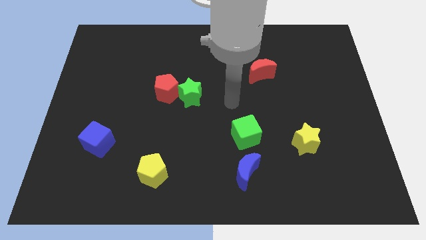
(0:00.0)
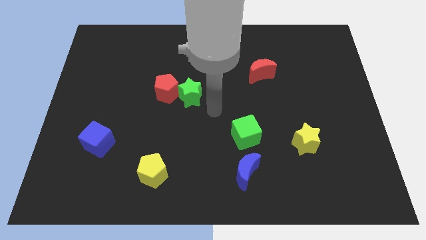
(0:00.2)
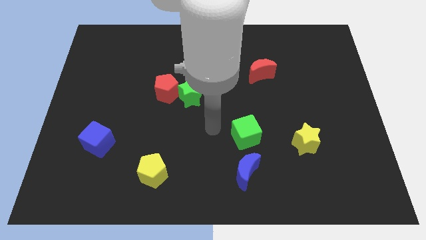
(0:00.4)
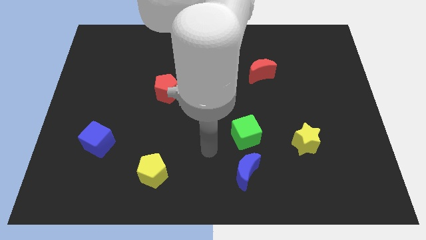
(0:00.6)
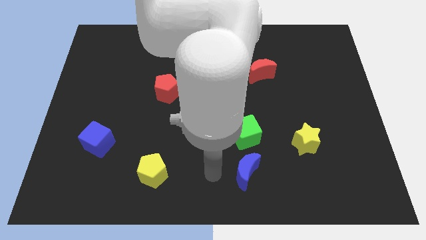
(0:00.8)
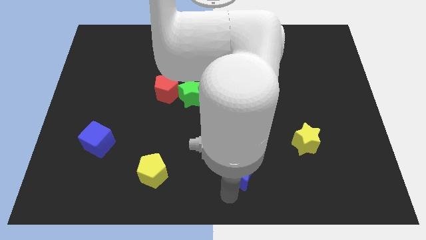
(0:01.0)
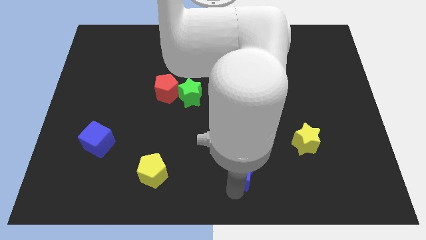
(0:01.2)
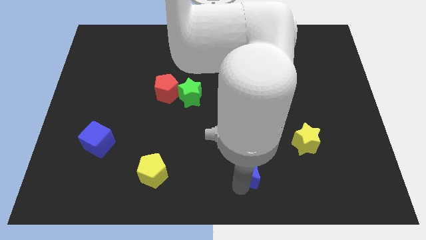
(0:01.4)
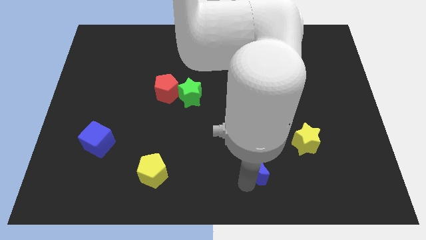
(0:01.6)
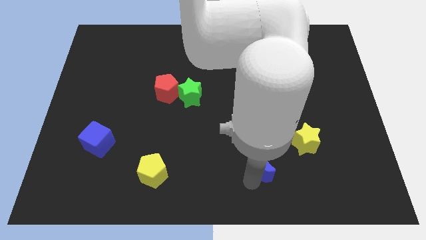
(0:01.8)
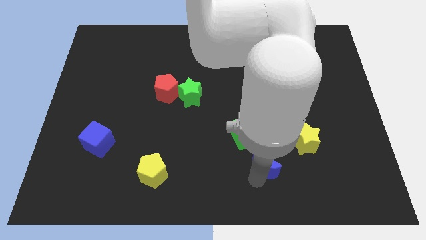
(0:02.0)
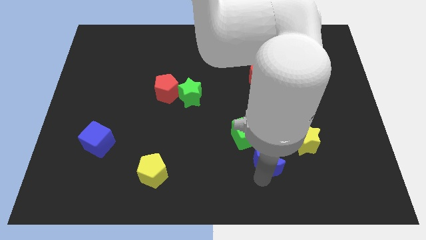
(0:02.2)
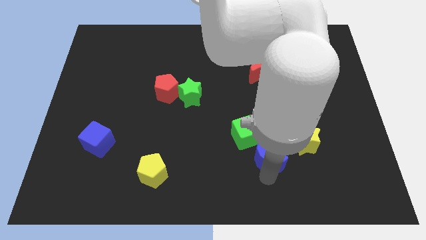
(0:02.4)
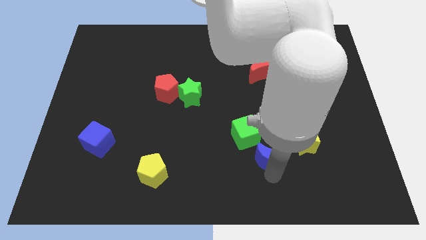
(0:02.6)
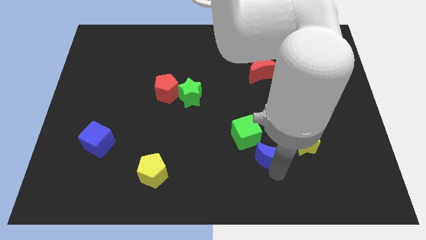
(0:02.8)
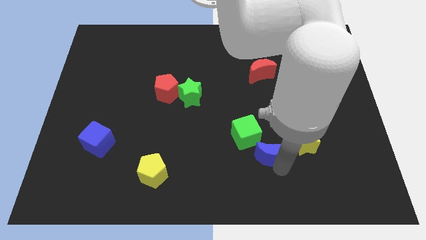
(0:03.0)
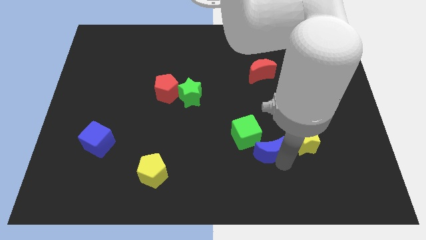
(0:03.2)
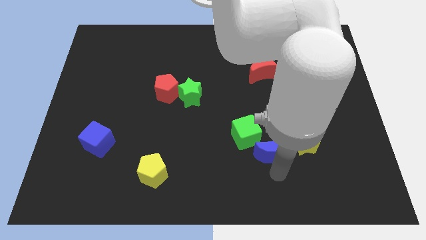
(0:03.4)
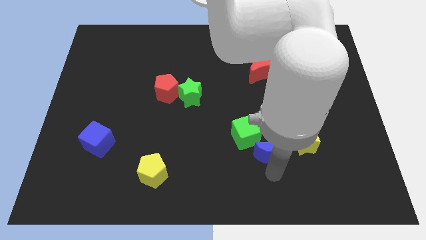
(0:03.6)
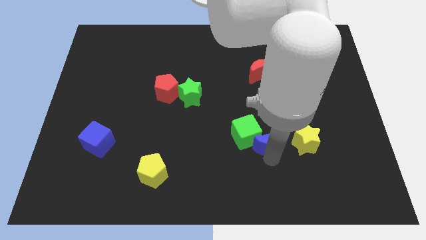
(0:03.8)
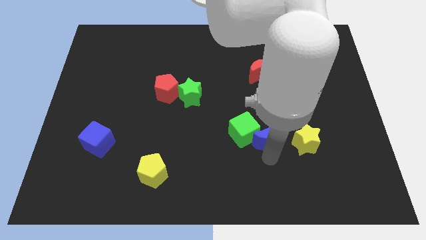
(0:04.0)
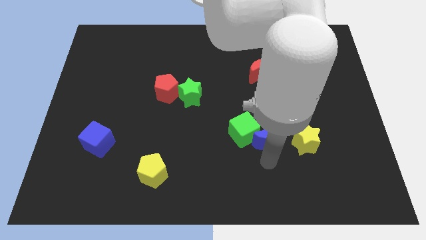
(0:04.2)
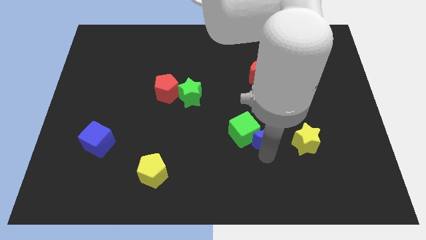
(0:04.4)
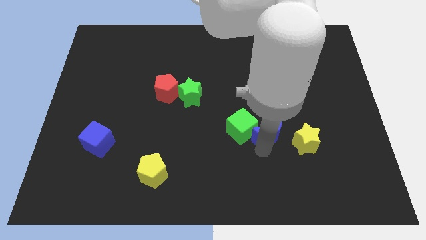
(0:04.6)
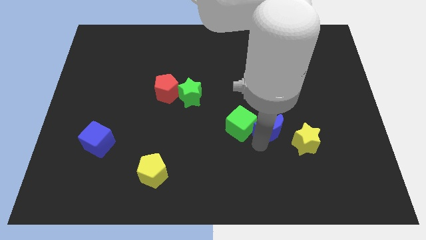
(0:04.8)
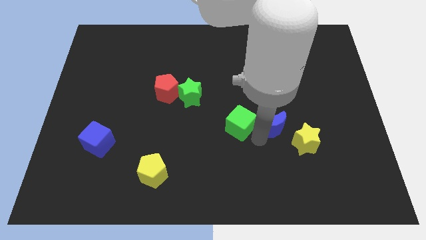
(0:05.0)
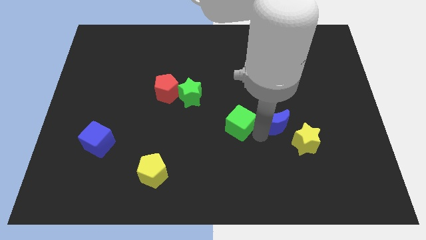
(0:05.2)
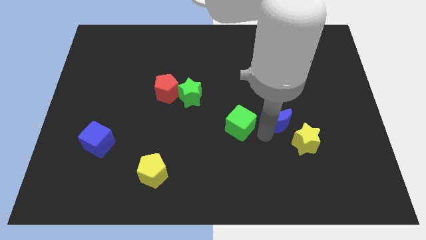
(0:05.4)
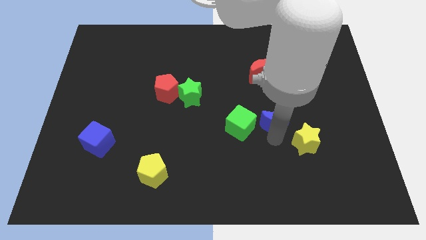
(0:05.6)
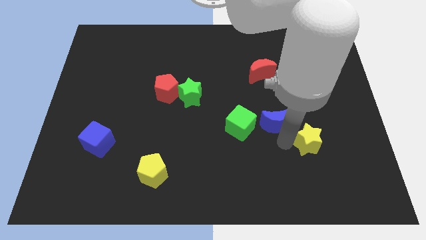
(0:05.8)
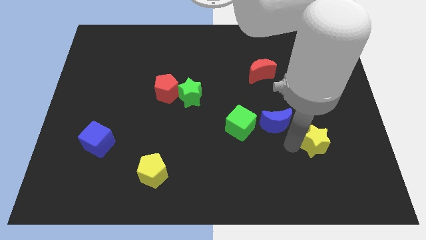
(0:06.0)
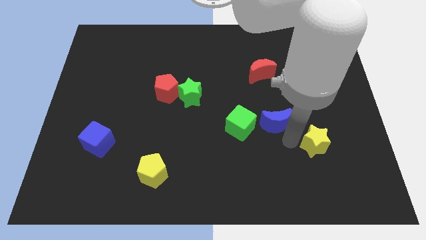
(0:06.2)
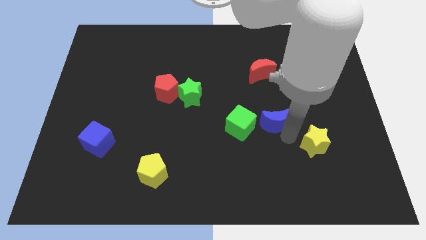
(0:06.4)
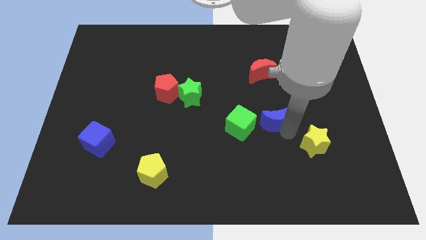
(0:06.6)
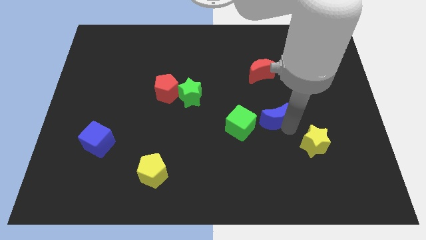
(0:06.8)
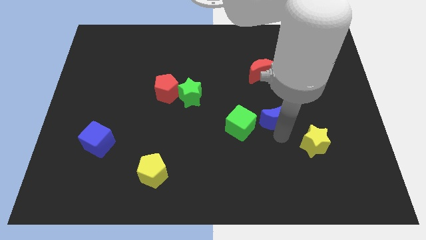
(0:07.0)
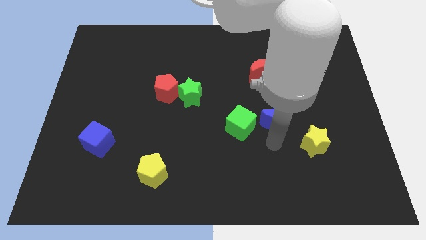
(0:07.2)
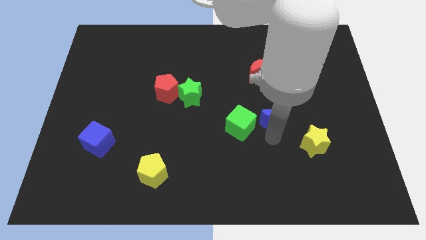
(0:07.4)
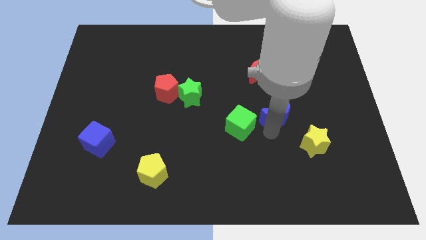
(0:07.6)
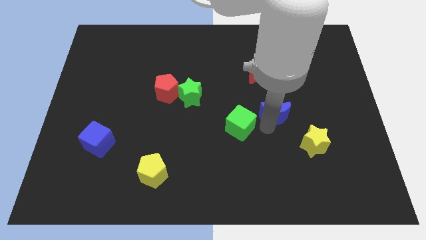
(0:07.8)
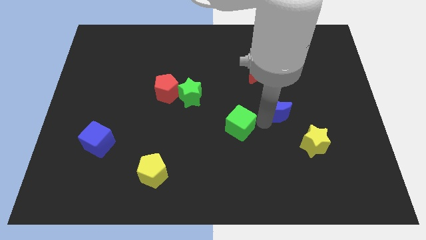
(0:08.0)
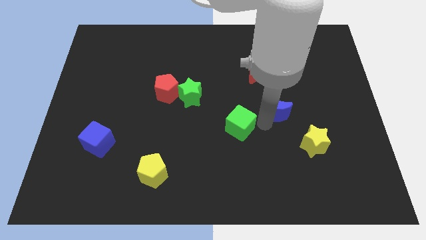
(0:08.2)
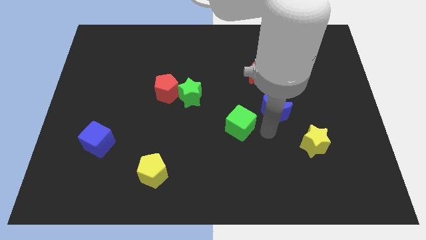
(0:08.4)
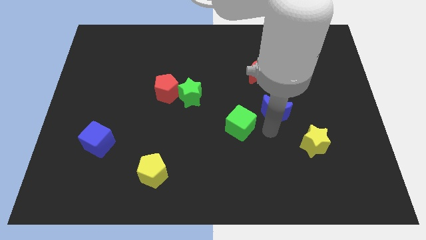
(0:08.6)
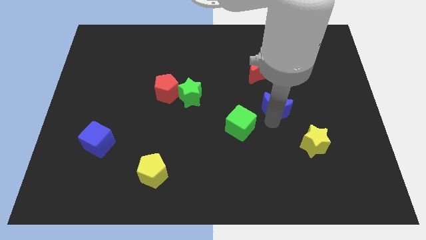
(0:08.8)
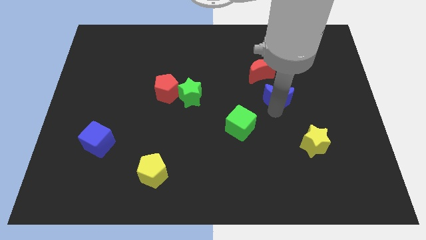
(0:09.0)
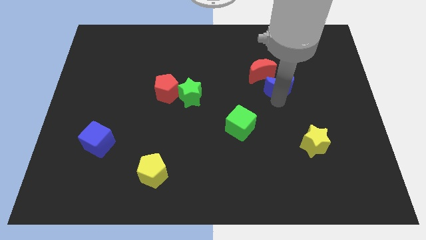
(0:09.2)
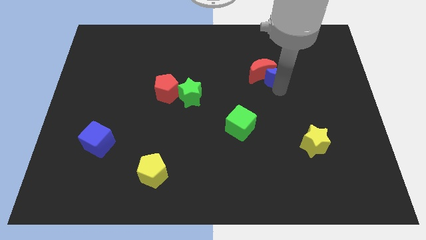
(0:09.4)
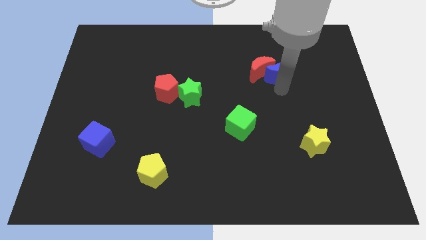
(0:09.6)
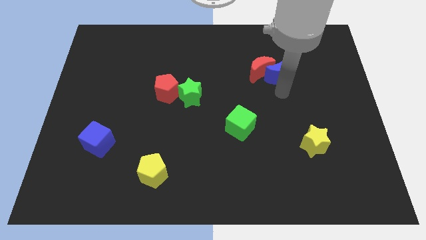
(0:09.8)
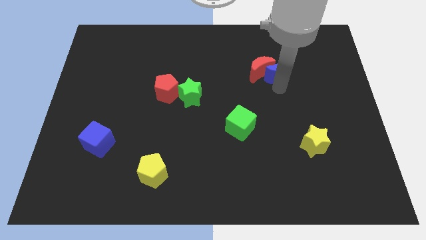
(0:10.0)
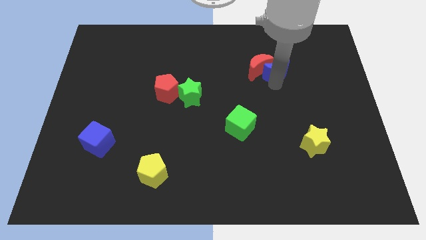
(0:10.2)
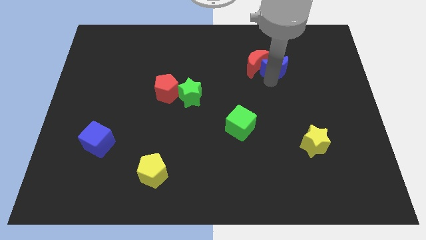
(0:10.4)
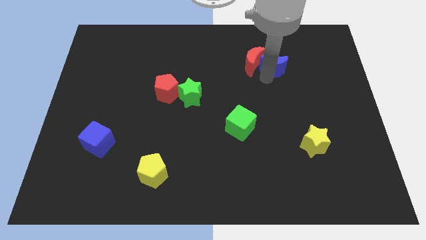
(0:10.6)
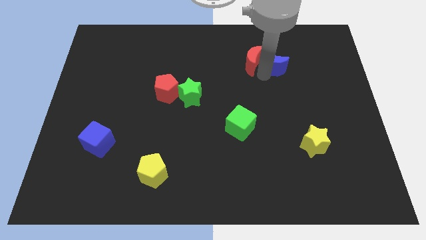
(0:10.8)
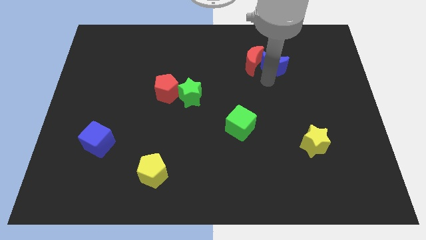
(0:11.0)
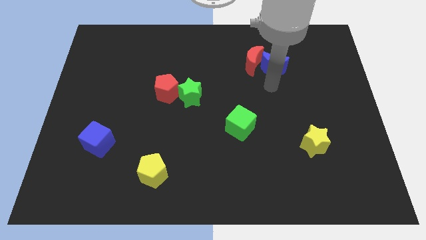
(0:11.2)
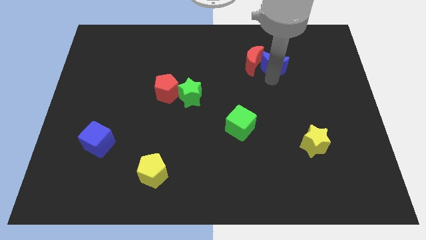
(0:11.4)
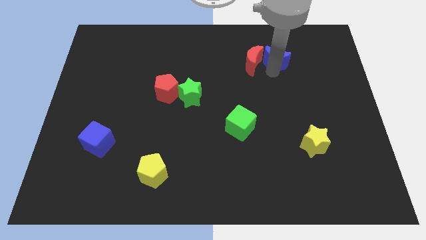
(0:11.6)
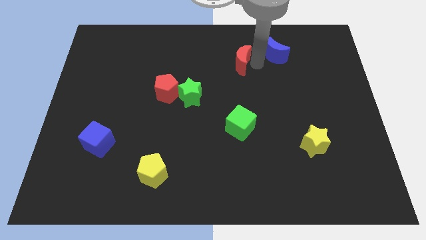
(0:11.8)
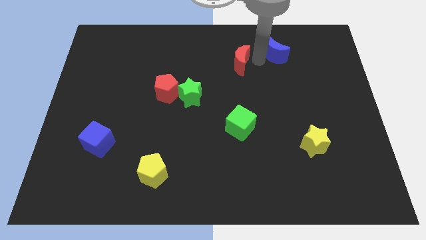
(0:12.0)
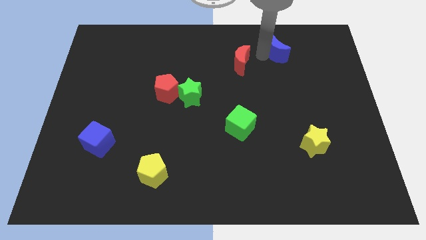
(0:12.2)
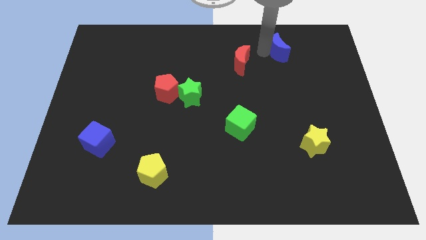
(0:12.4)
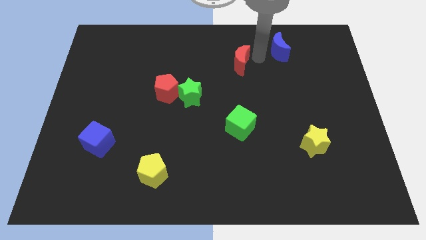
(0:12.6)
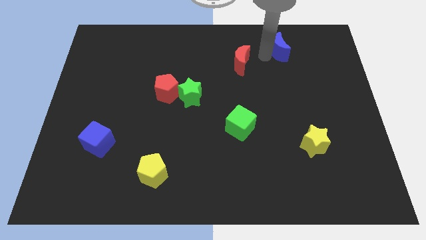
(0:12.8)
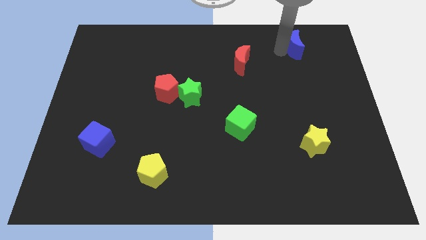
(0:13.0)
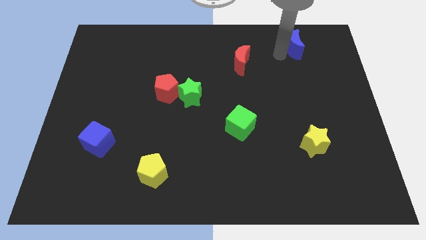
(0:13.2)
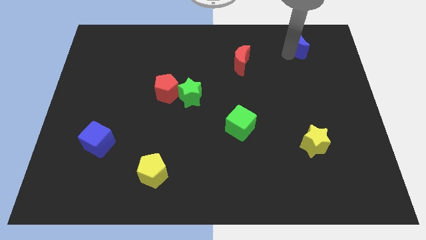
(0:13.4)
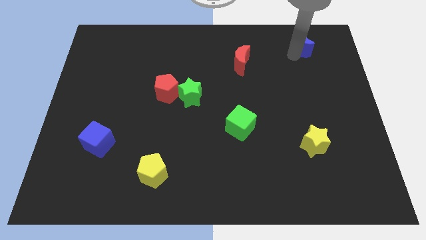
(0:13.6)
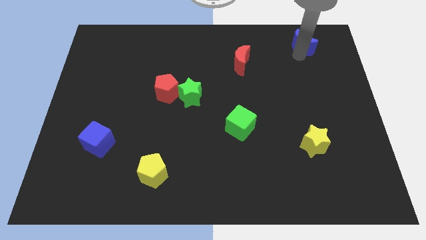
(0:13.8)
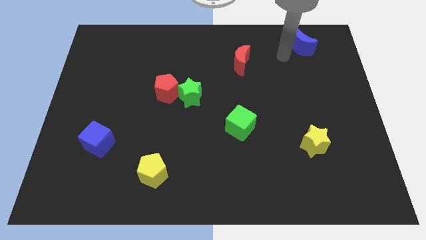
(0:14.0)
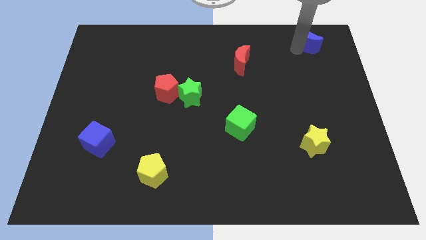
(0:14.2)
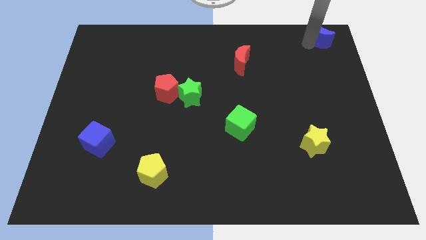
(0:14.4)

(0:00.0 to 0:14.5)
slide the blue moon to the top right of the board
